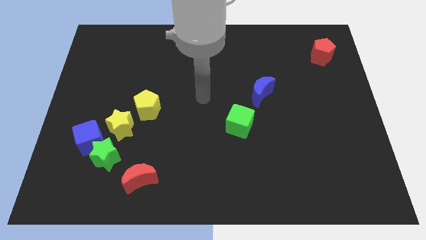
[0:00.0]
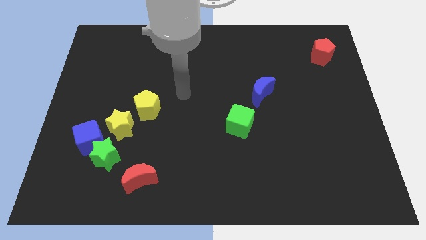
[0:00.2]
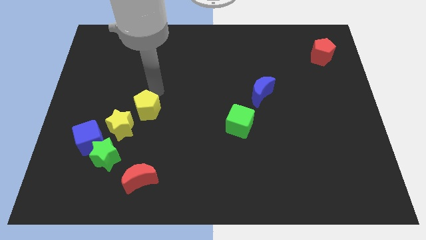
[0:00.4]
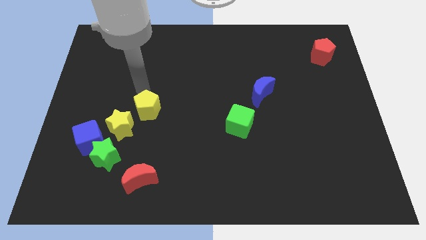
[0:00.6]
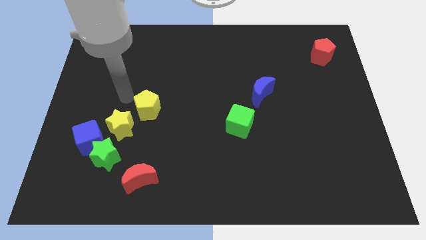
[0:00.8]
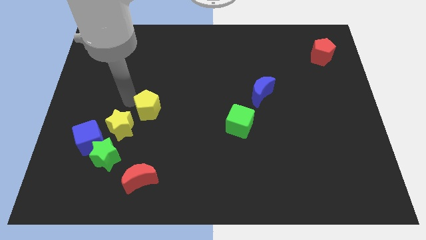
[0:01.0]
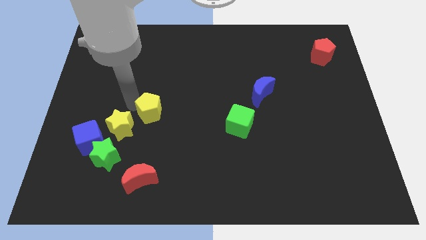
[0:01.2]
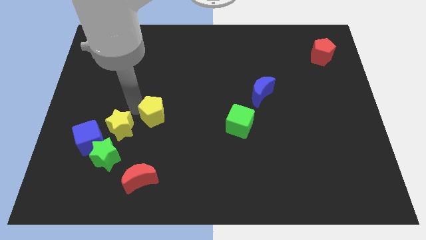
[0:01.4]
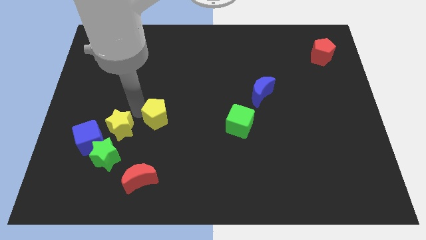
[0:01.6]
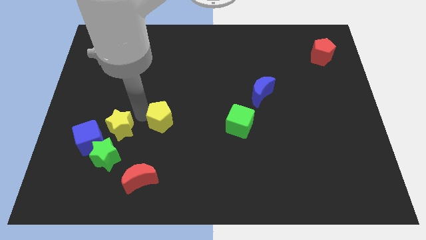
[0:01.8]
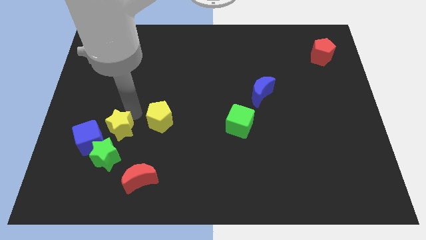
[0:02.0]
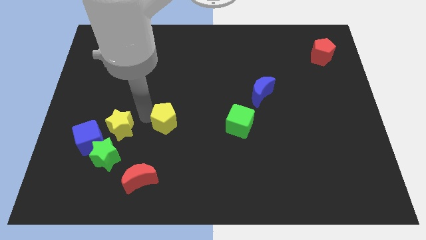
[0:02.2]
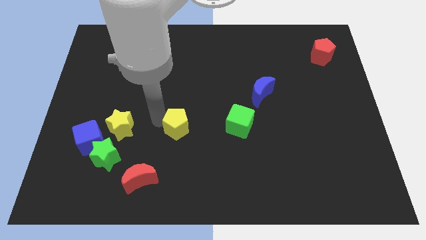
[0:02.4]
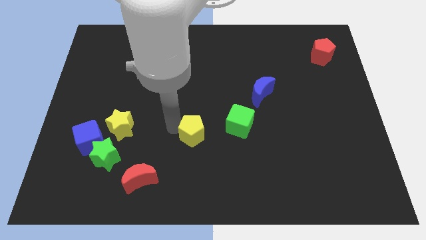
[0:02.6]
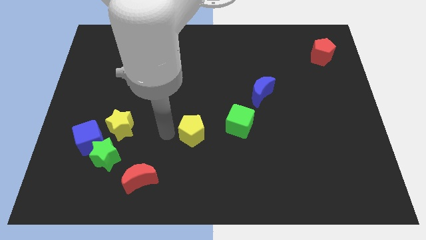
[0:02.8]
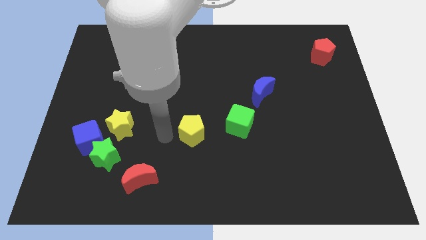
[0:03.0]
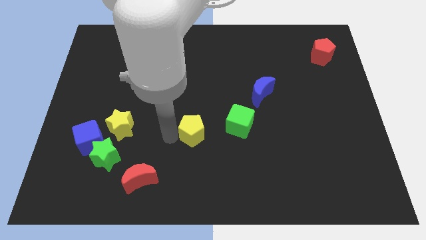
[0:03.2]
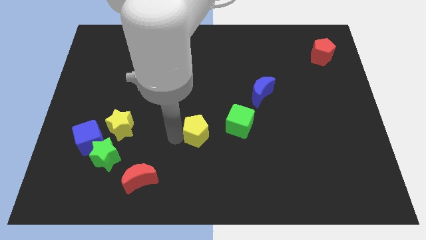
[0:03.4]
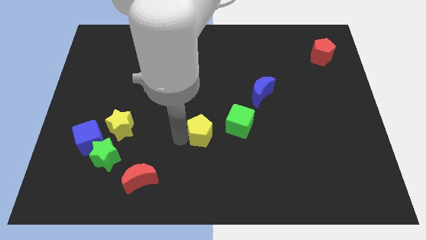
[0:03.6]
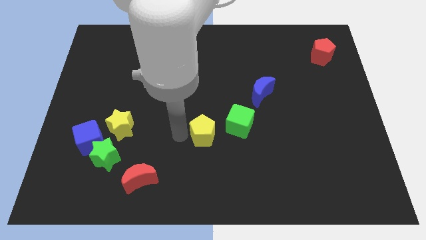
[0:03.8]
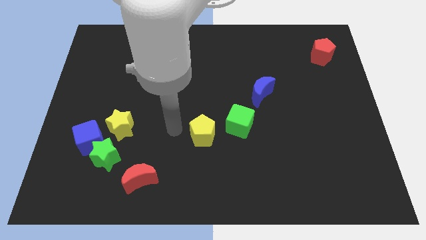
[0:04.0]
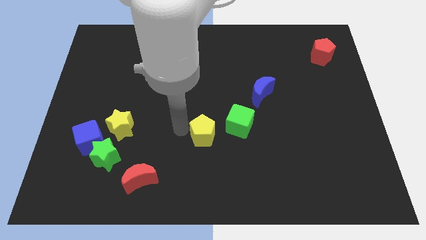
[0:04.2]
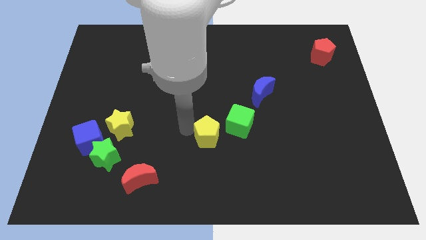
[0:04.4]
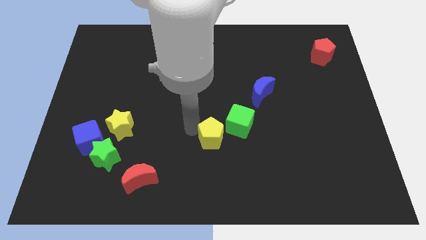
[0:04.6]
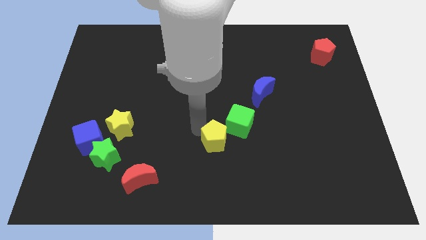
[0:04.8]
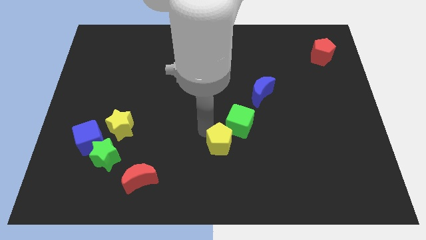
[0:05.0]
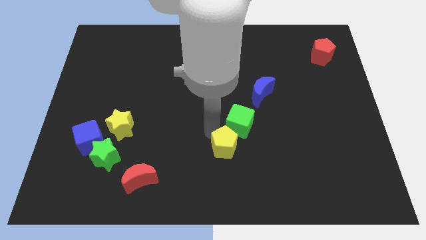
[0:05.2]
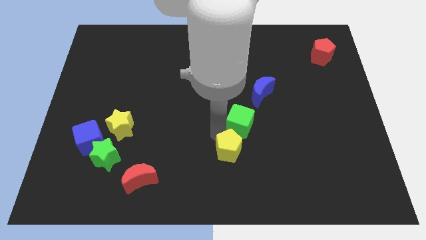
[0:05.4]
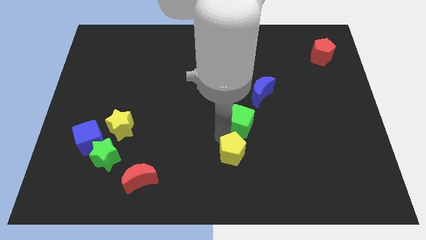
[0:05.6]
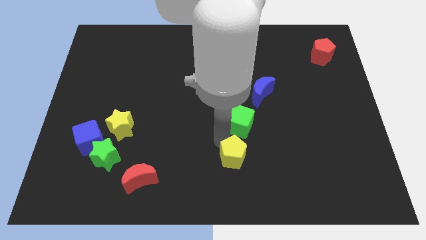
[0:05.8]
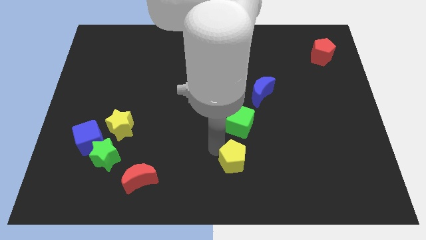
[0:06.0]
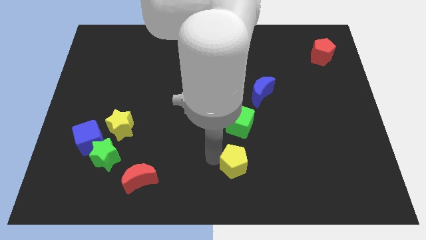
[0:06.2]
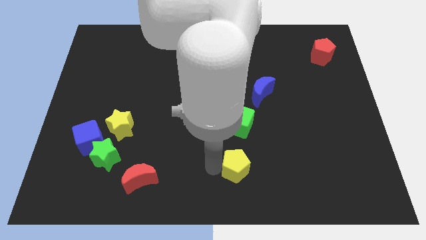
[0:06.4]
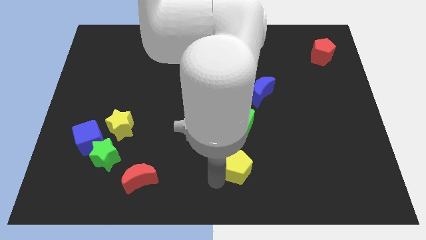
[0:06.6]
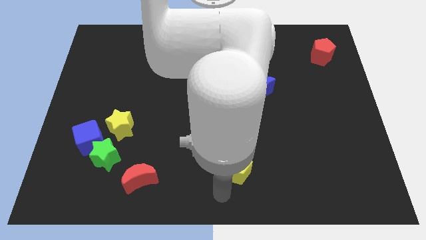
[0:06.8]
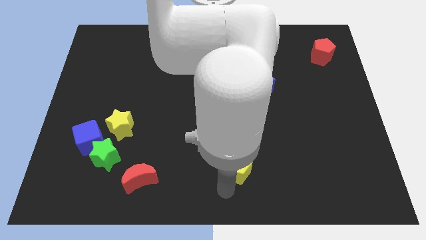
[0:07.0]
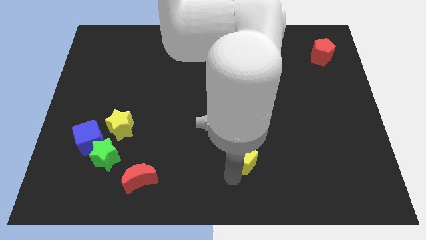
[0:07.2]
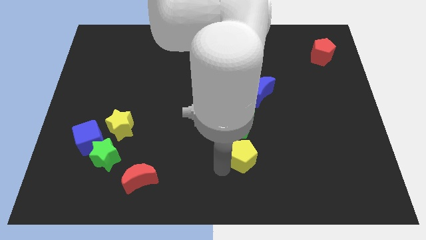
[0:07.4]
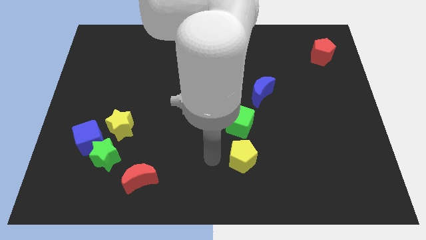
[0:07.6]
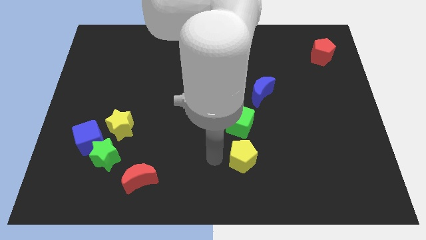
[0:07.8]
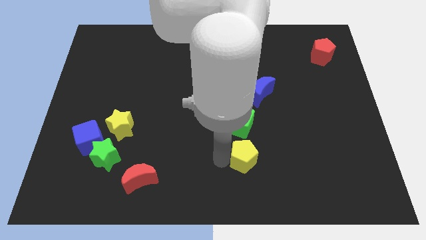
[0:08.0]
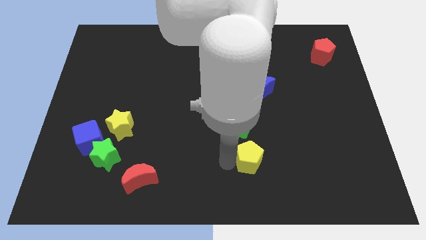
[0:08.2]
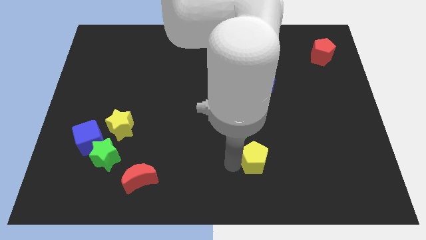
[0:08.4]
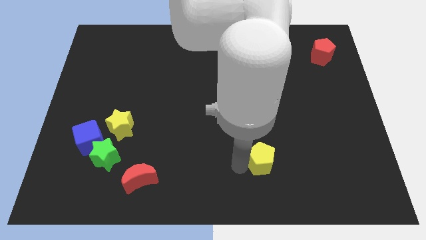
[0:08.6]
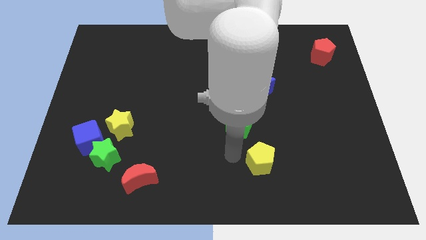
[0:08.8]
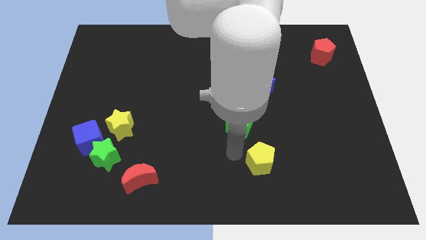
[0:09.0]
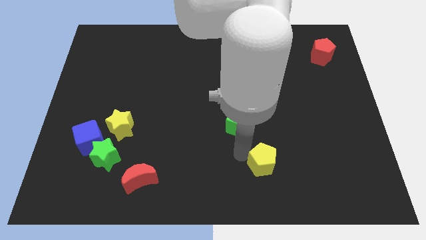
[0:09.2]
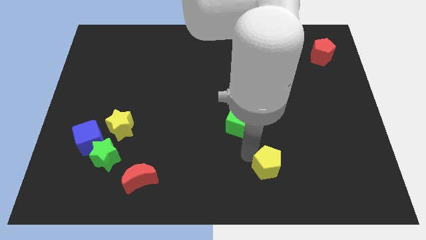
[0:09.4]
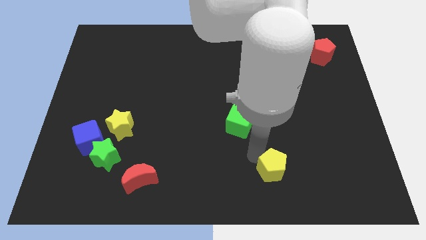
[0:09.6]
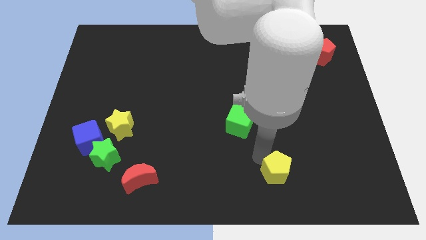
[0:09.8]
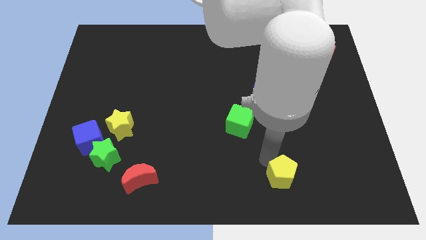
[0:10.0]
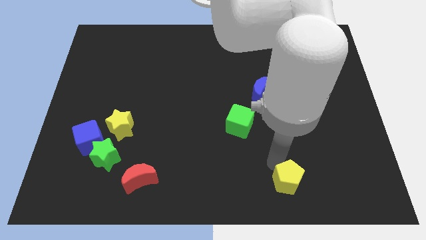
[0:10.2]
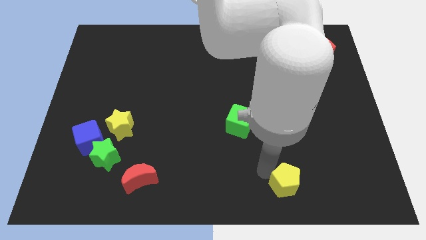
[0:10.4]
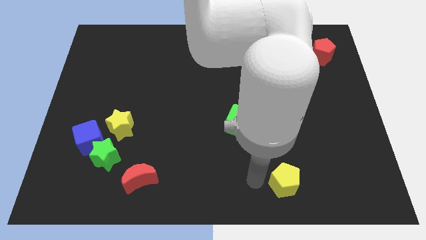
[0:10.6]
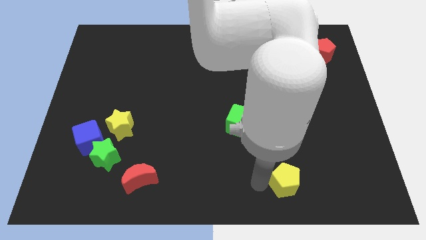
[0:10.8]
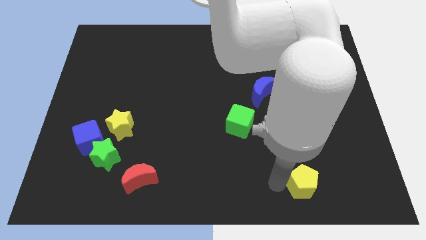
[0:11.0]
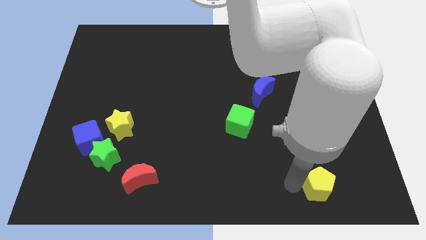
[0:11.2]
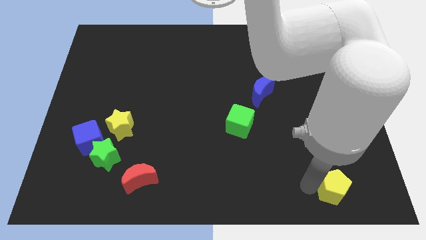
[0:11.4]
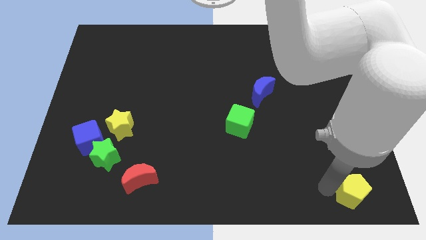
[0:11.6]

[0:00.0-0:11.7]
put the yellow pentagon to the lower right corner
